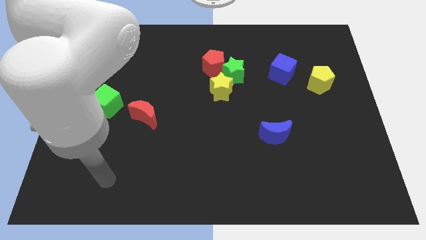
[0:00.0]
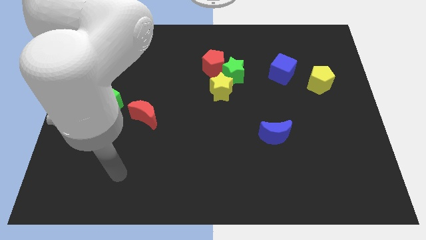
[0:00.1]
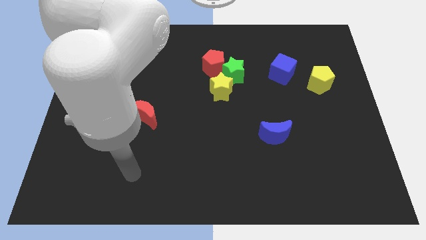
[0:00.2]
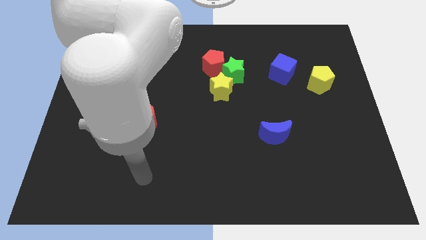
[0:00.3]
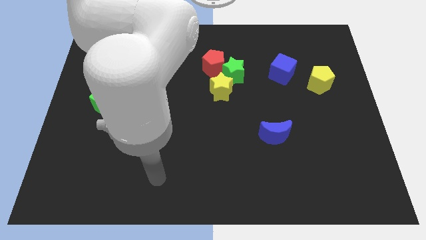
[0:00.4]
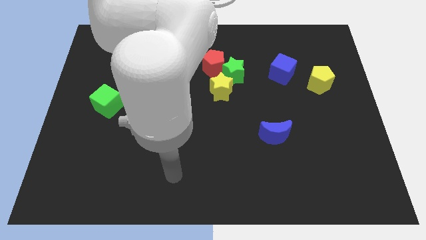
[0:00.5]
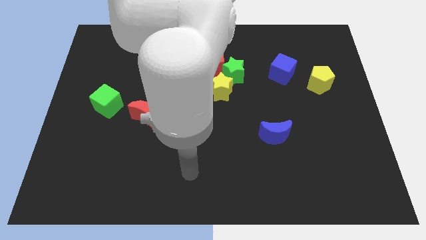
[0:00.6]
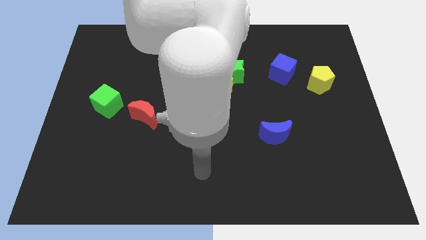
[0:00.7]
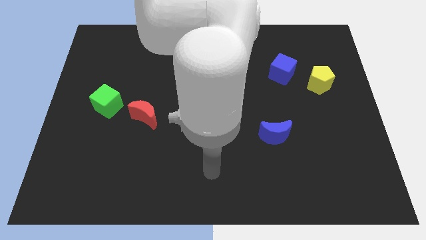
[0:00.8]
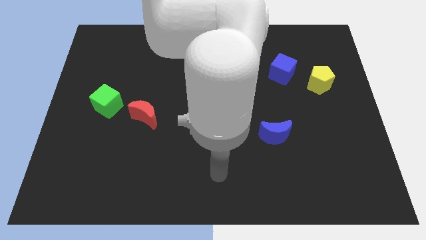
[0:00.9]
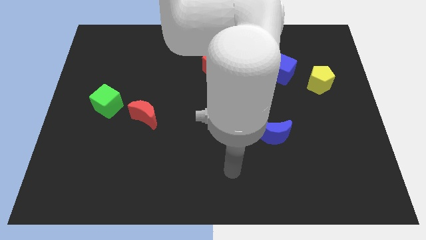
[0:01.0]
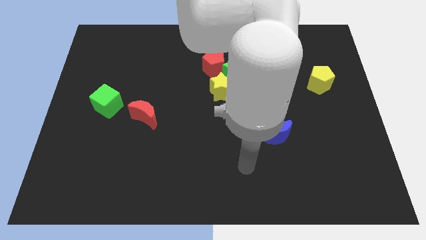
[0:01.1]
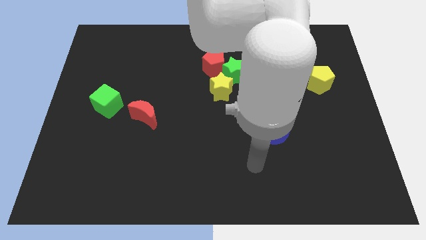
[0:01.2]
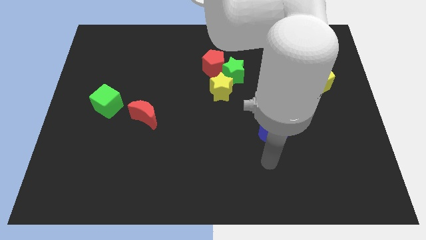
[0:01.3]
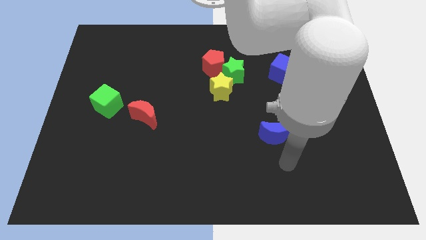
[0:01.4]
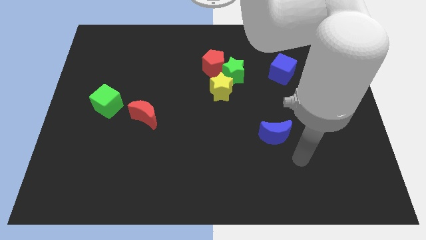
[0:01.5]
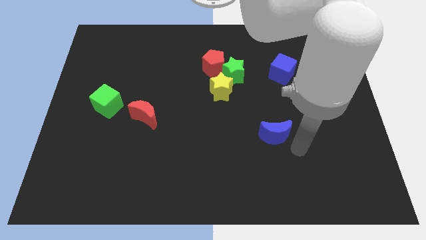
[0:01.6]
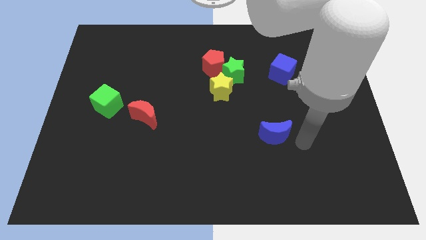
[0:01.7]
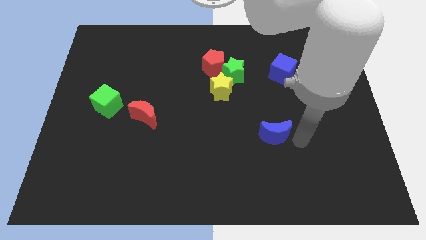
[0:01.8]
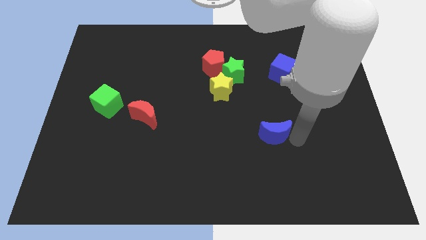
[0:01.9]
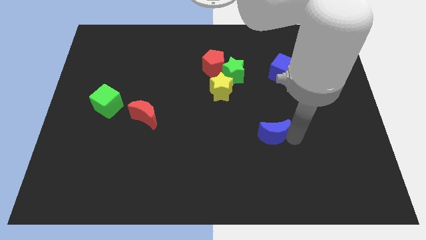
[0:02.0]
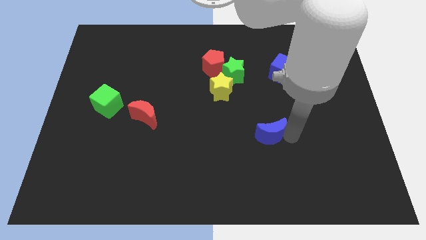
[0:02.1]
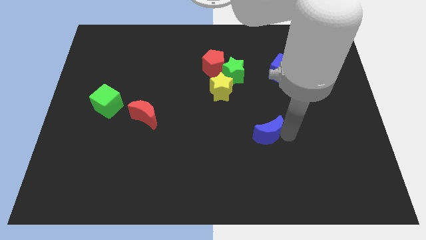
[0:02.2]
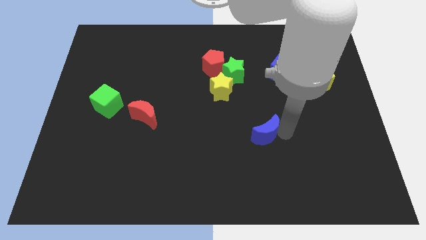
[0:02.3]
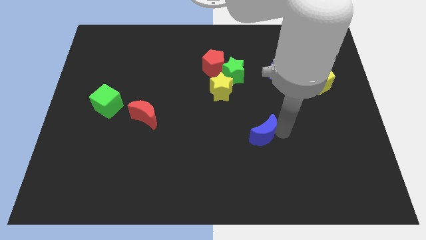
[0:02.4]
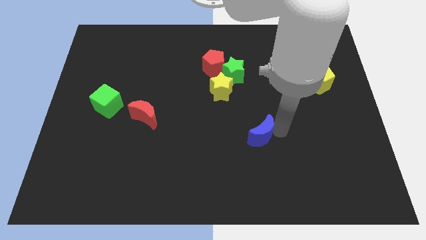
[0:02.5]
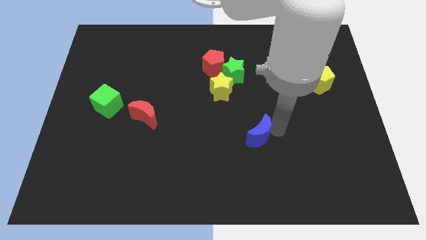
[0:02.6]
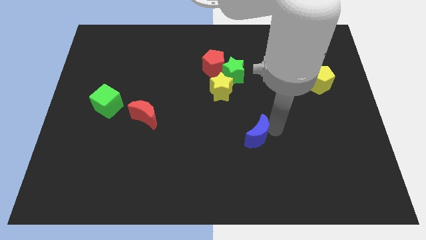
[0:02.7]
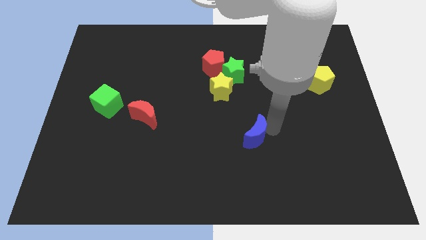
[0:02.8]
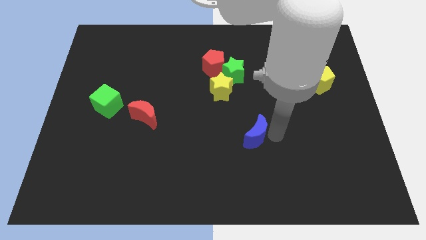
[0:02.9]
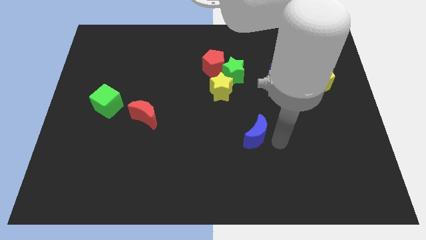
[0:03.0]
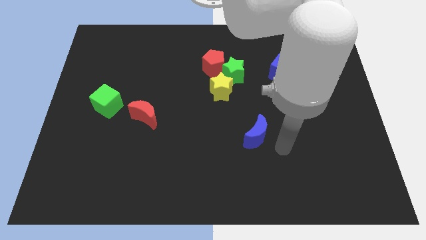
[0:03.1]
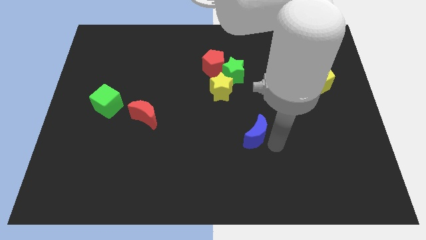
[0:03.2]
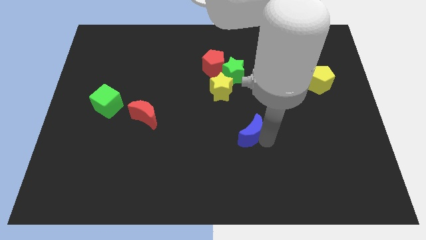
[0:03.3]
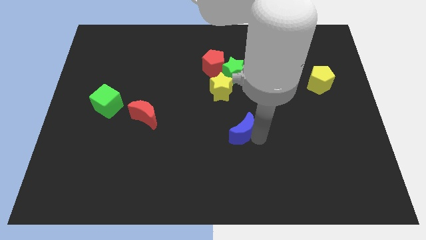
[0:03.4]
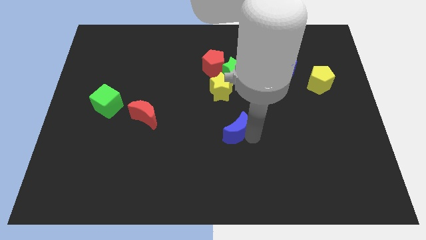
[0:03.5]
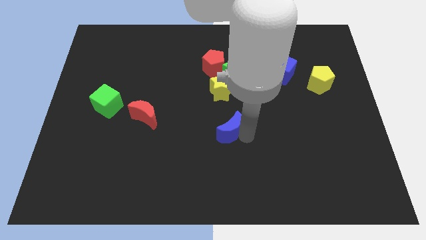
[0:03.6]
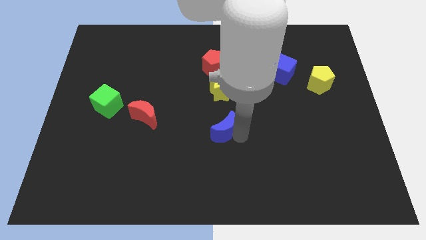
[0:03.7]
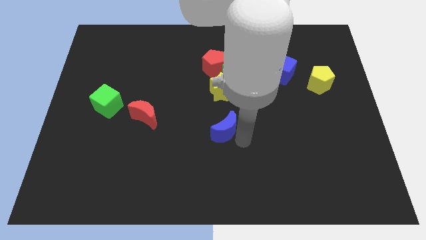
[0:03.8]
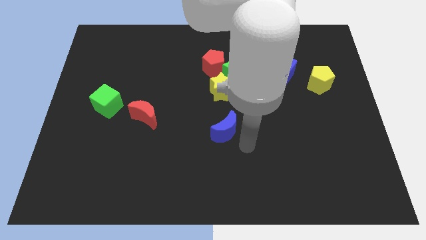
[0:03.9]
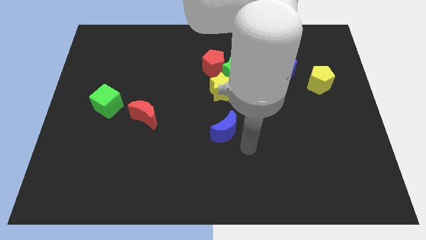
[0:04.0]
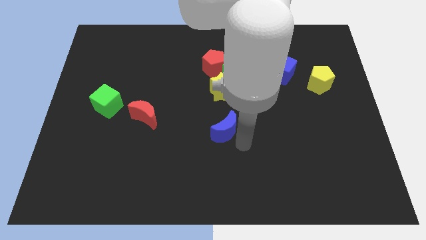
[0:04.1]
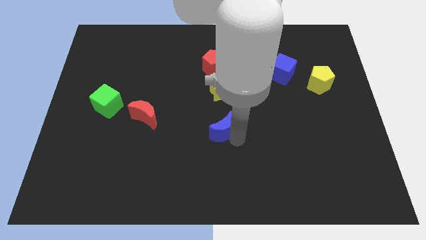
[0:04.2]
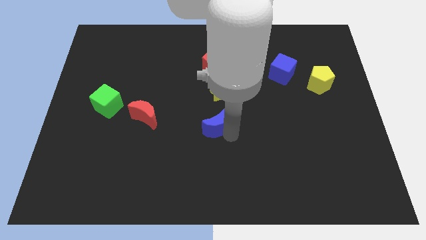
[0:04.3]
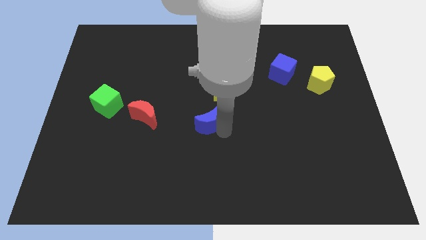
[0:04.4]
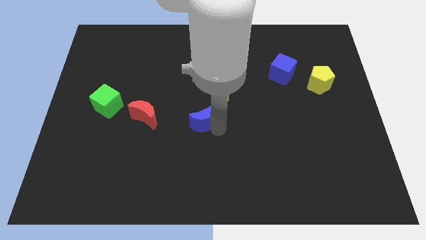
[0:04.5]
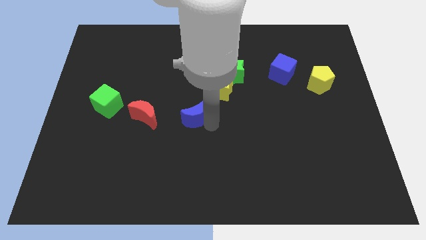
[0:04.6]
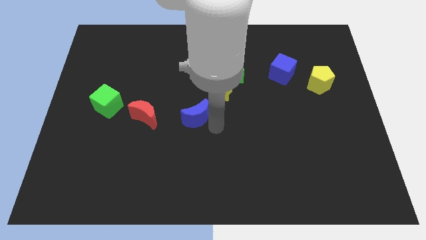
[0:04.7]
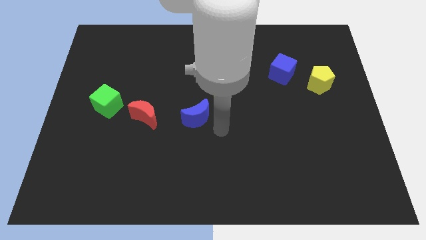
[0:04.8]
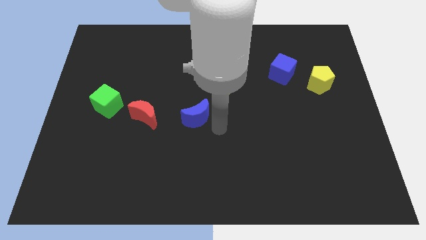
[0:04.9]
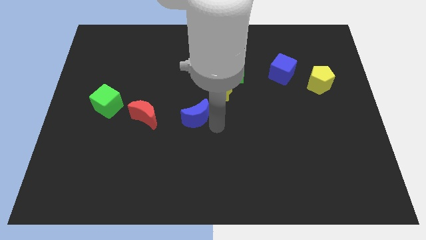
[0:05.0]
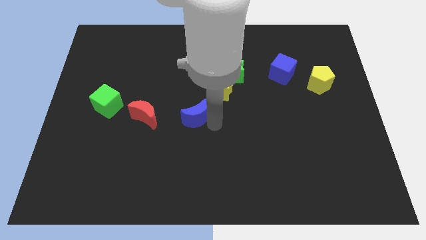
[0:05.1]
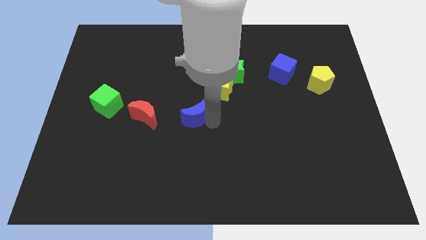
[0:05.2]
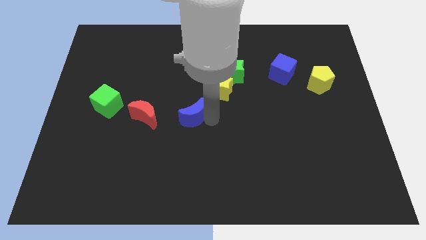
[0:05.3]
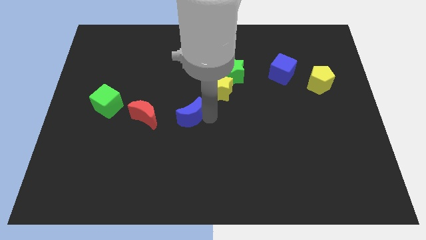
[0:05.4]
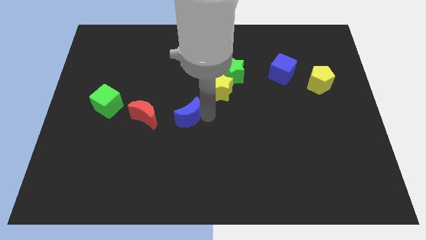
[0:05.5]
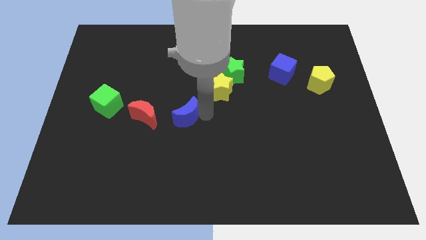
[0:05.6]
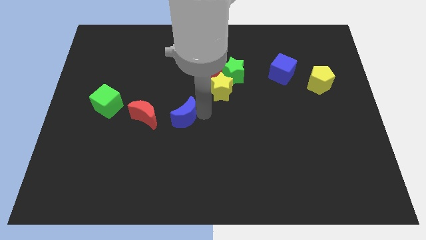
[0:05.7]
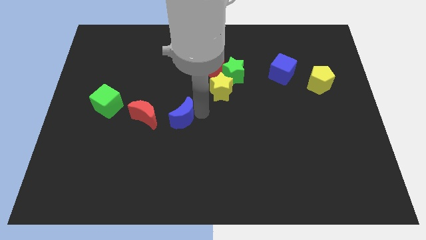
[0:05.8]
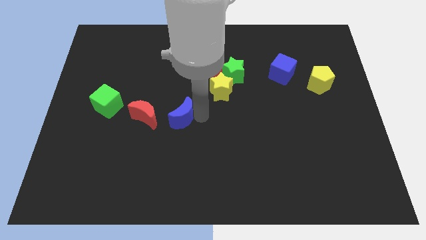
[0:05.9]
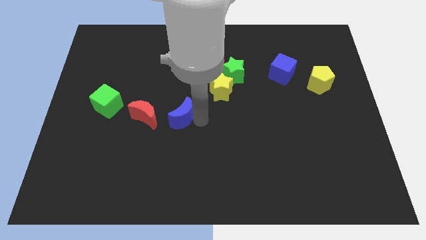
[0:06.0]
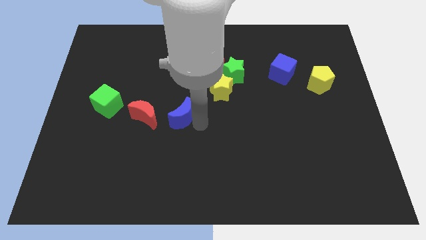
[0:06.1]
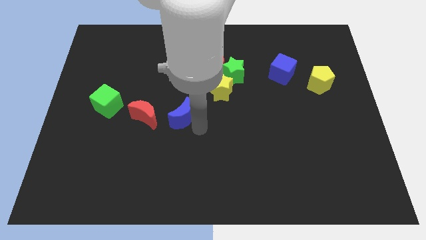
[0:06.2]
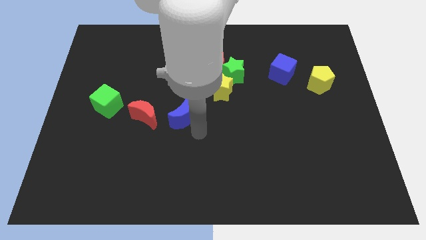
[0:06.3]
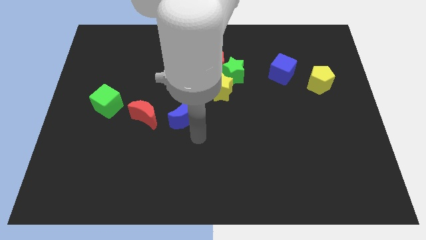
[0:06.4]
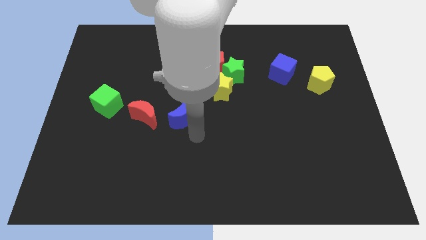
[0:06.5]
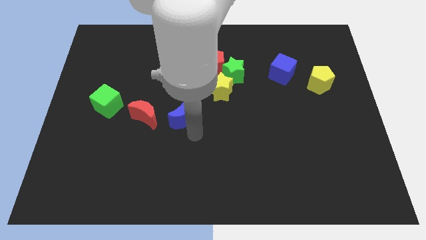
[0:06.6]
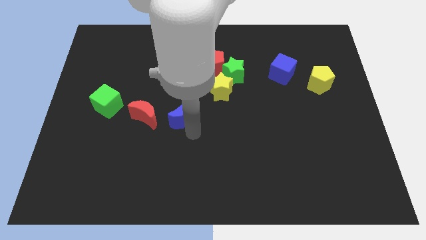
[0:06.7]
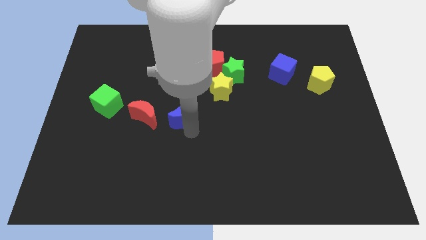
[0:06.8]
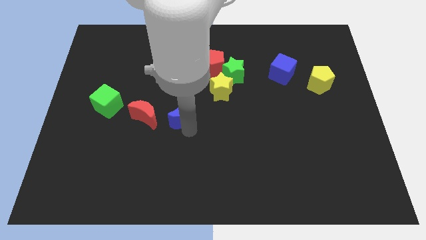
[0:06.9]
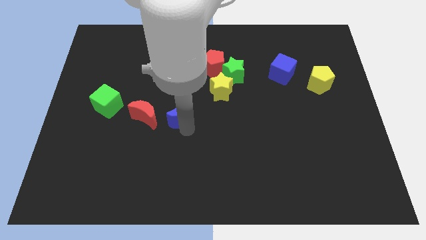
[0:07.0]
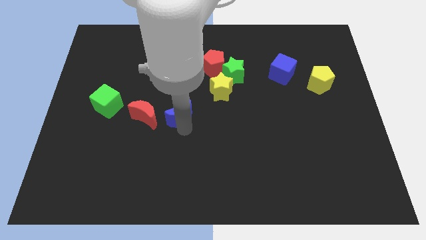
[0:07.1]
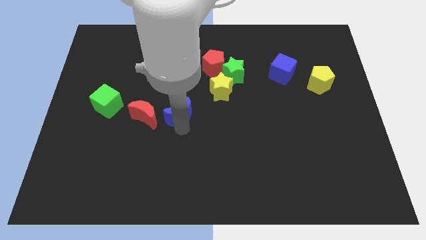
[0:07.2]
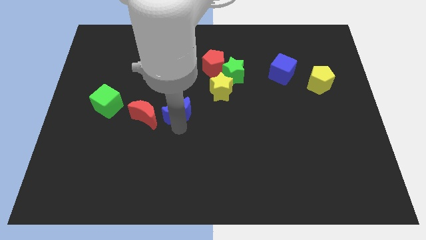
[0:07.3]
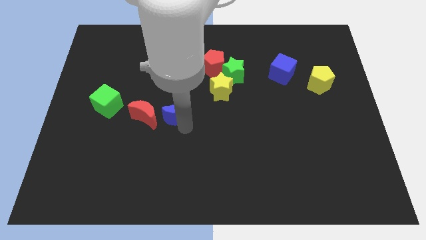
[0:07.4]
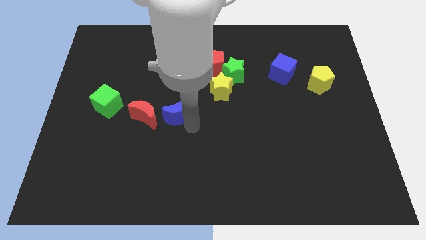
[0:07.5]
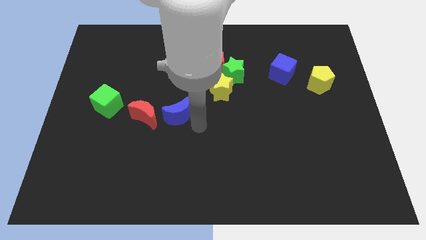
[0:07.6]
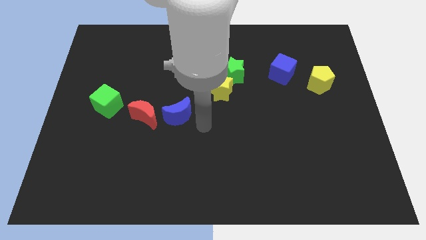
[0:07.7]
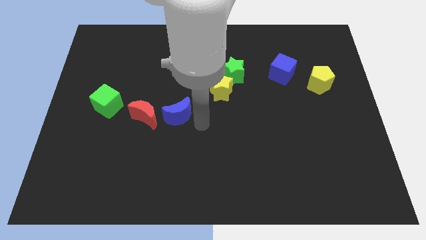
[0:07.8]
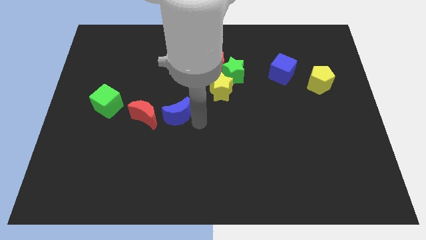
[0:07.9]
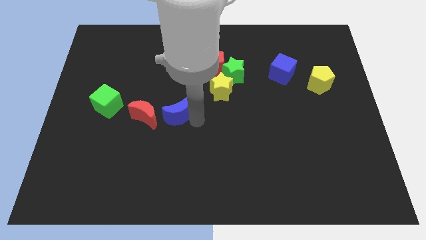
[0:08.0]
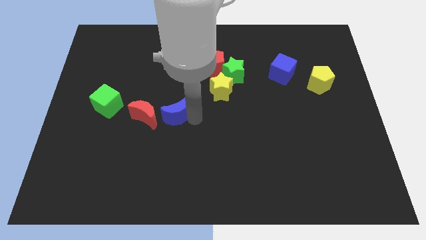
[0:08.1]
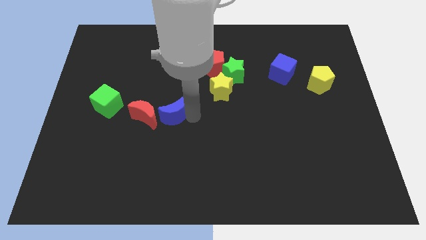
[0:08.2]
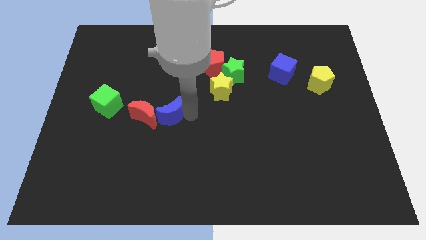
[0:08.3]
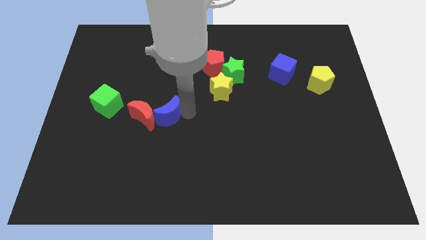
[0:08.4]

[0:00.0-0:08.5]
move the blue moon just right of the green cube
